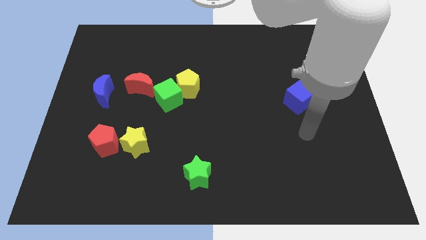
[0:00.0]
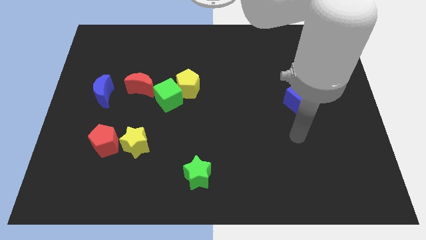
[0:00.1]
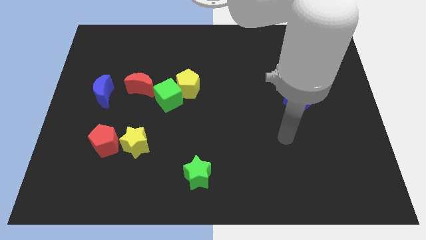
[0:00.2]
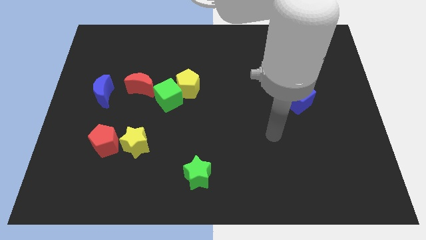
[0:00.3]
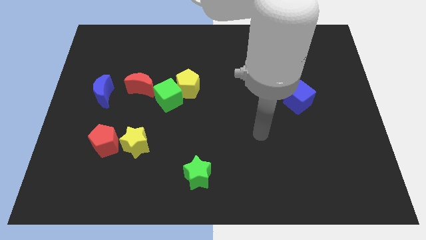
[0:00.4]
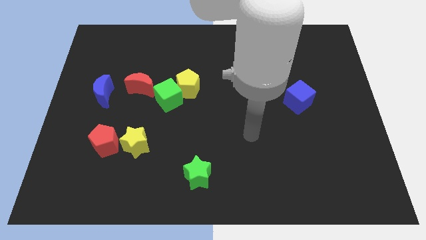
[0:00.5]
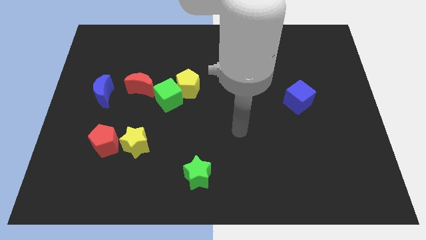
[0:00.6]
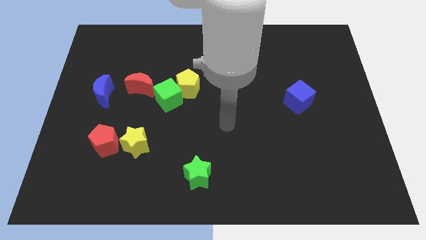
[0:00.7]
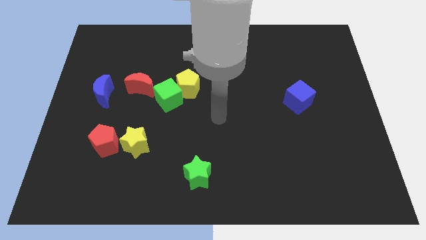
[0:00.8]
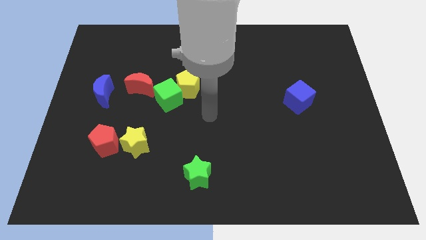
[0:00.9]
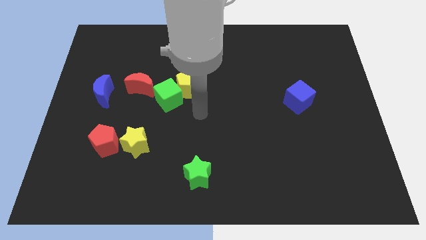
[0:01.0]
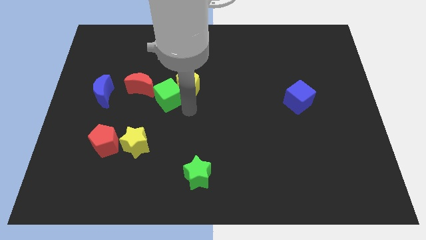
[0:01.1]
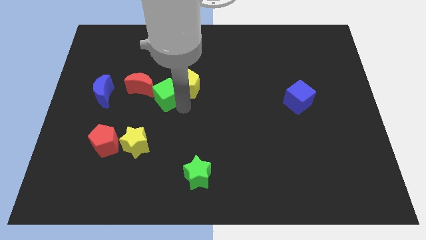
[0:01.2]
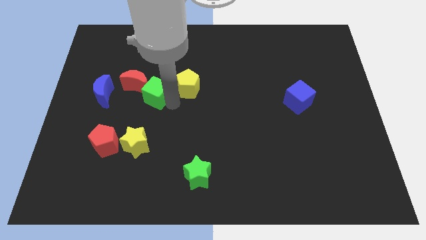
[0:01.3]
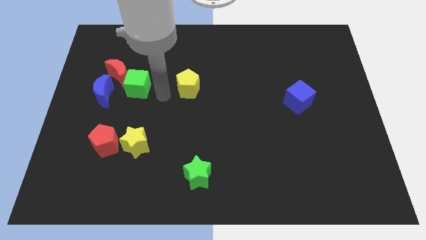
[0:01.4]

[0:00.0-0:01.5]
separate the yellow pentagon from the green cube

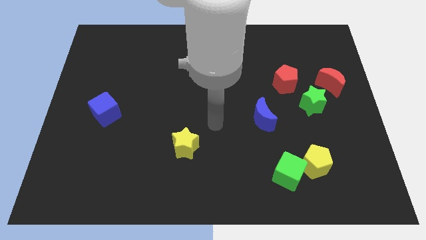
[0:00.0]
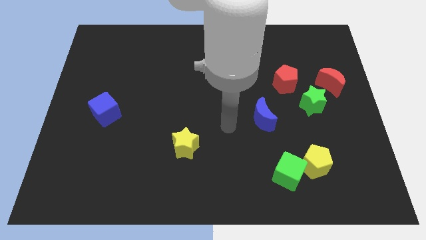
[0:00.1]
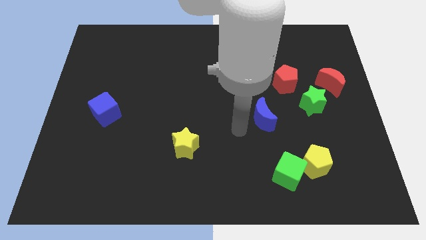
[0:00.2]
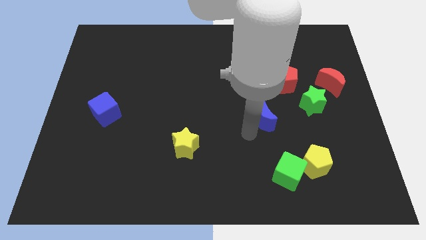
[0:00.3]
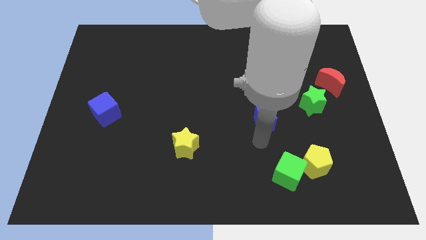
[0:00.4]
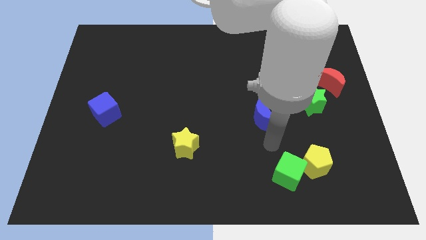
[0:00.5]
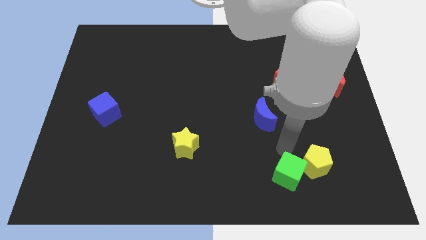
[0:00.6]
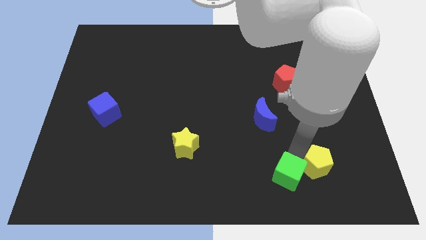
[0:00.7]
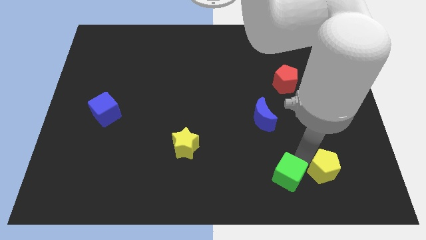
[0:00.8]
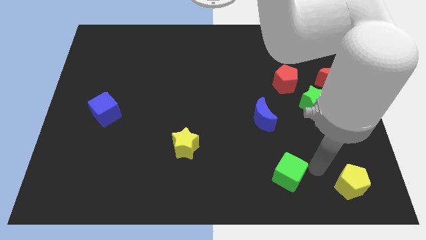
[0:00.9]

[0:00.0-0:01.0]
separate the green cube from the yellow pentagon

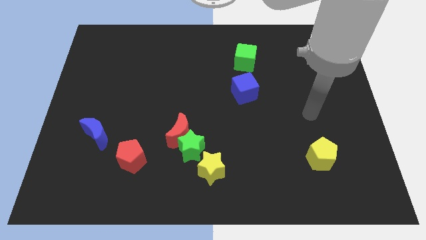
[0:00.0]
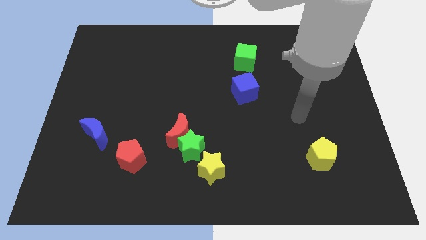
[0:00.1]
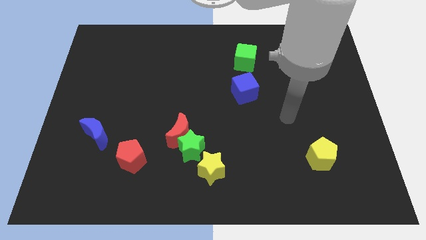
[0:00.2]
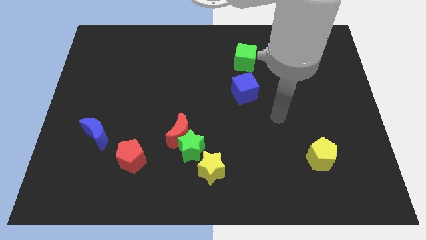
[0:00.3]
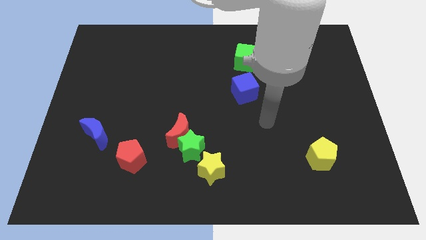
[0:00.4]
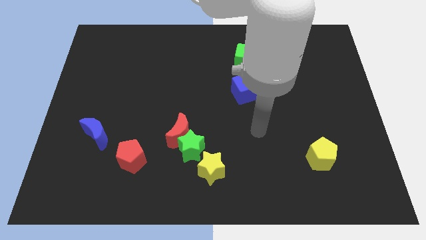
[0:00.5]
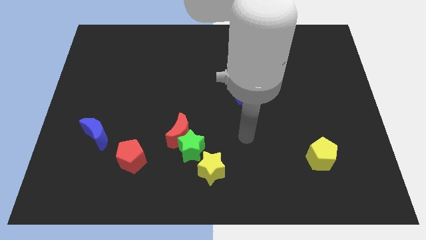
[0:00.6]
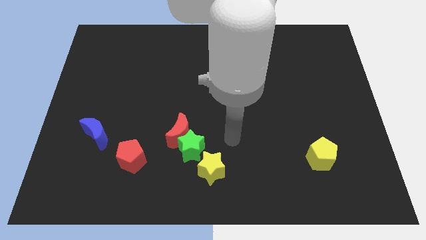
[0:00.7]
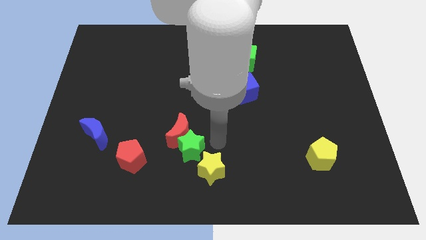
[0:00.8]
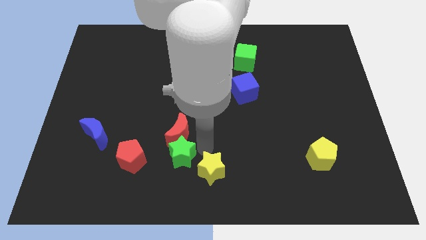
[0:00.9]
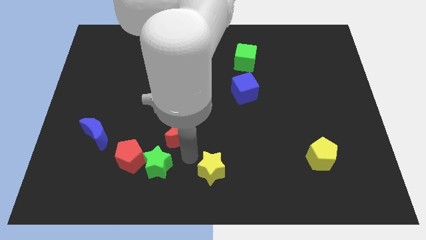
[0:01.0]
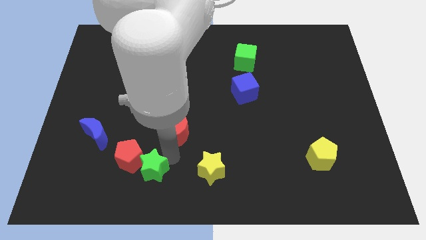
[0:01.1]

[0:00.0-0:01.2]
separate the red moon from the green star

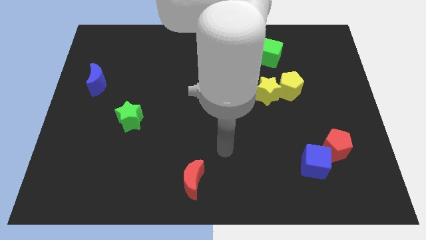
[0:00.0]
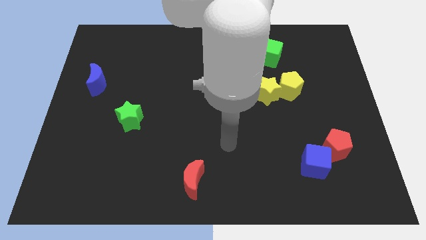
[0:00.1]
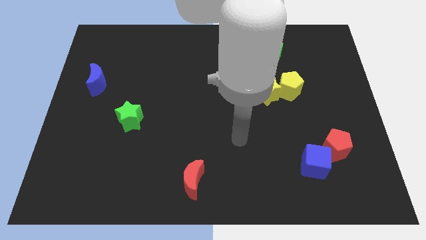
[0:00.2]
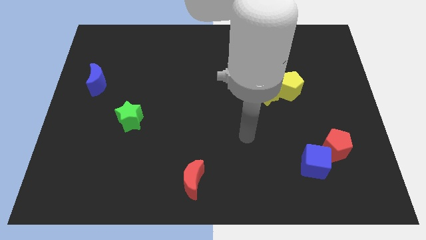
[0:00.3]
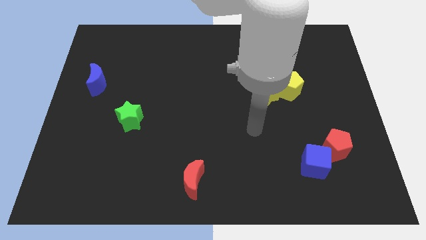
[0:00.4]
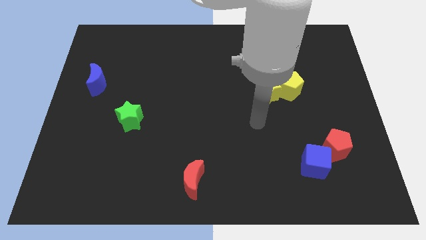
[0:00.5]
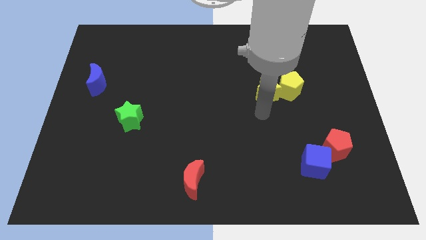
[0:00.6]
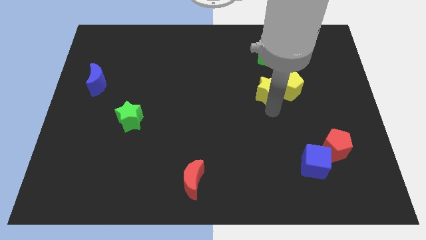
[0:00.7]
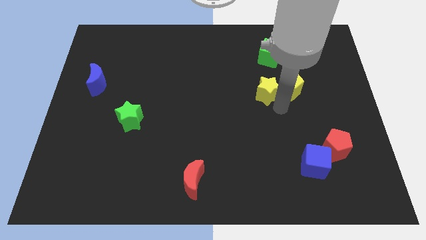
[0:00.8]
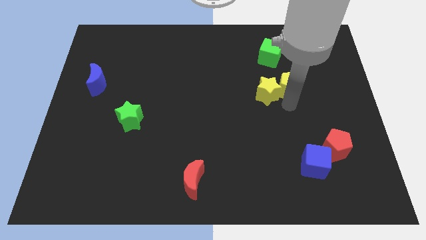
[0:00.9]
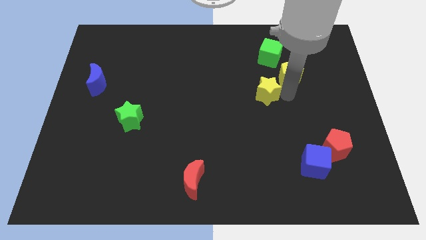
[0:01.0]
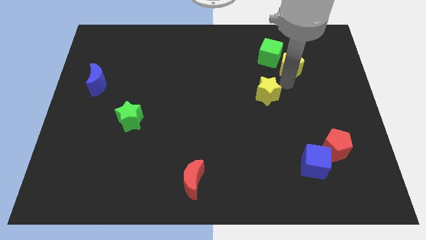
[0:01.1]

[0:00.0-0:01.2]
separate the yellow star from the yellow pentagon

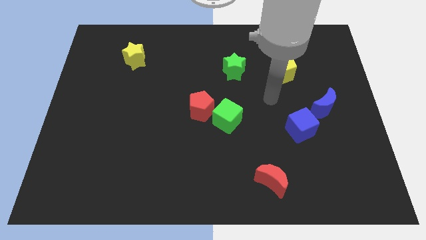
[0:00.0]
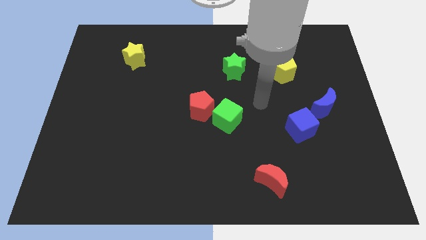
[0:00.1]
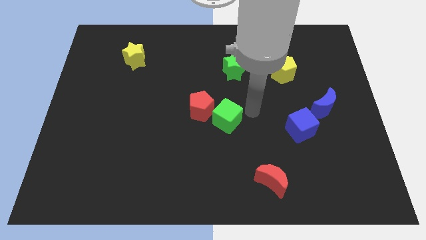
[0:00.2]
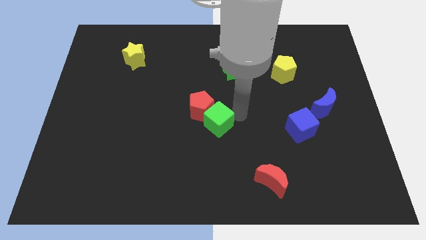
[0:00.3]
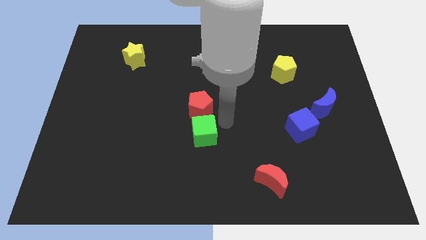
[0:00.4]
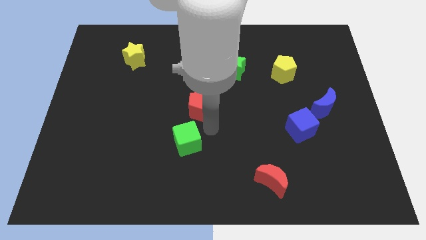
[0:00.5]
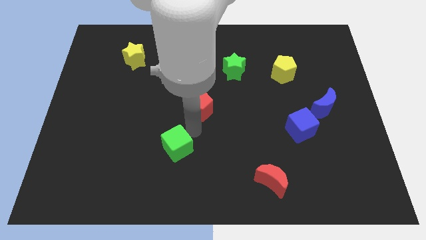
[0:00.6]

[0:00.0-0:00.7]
move the red pentagon away from the green cube

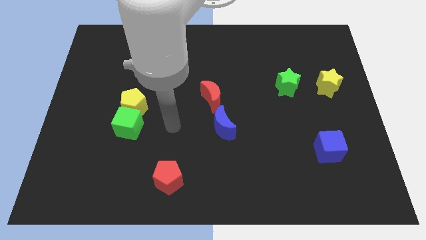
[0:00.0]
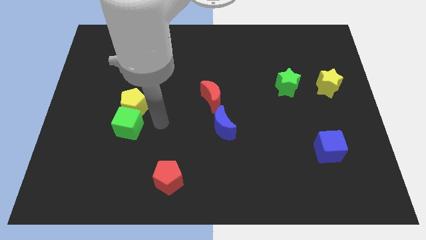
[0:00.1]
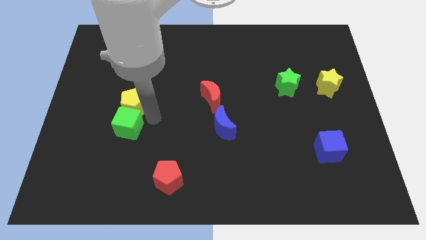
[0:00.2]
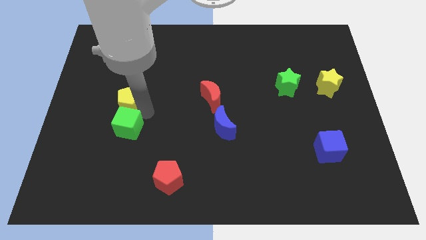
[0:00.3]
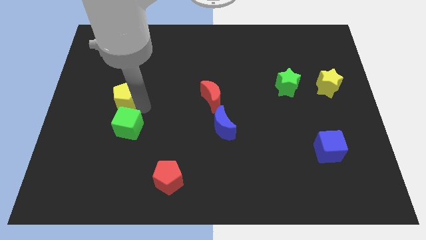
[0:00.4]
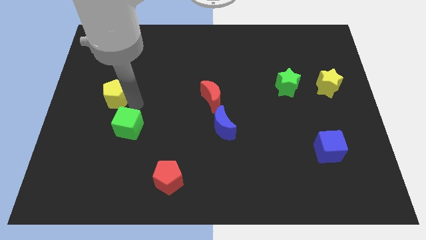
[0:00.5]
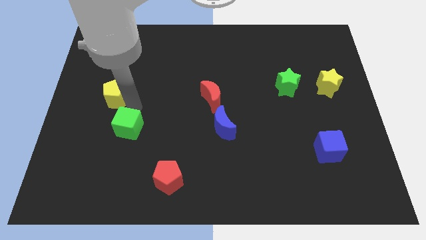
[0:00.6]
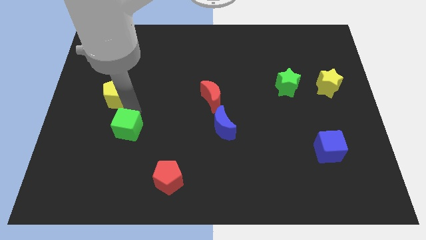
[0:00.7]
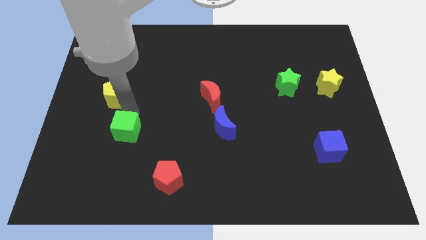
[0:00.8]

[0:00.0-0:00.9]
pull the green cube apart from the yellow pentagon

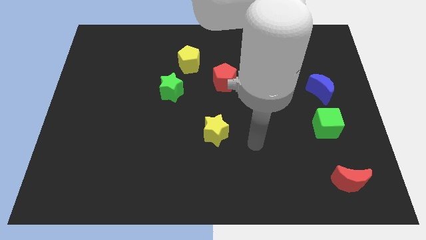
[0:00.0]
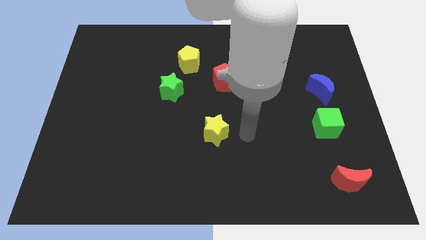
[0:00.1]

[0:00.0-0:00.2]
pull the green star apart from the yellow pentagon

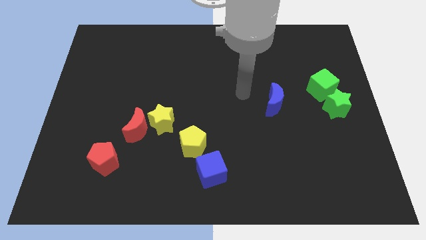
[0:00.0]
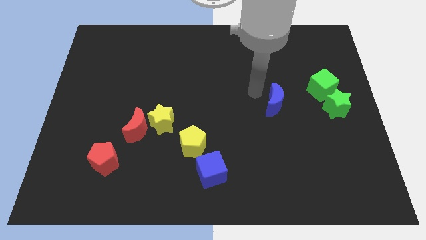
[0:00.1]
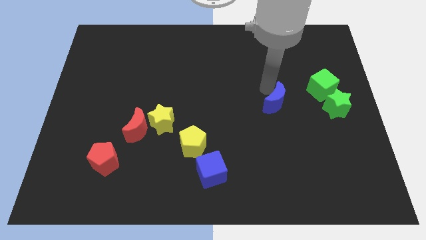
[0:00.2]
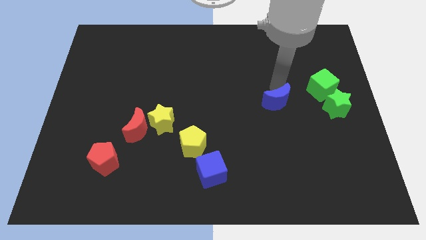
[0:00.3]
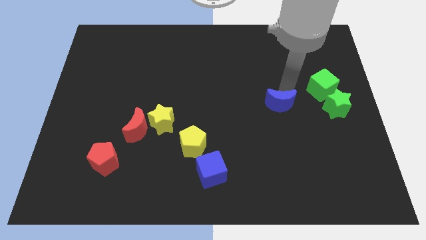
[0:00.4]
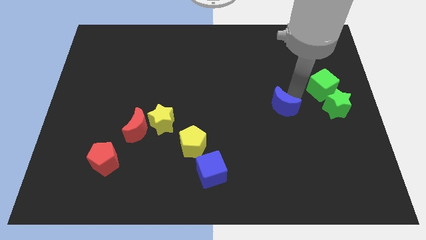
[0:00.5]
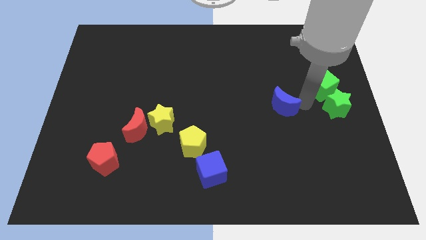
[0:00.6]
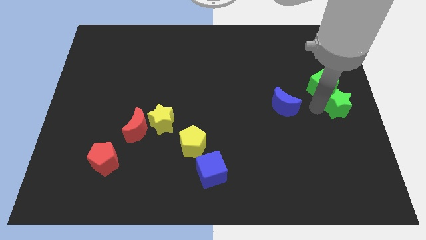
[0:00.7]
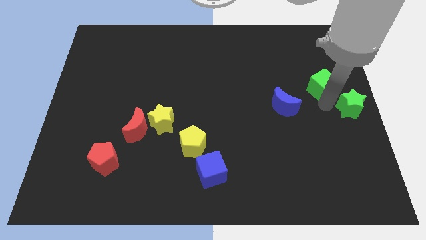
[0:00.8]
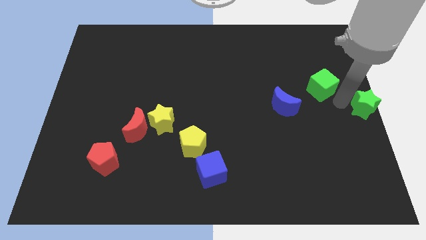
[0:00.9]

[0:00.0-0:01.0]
pull the green cube apart from the green star

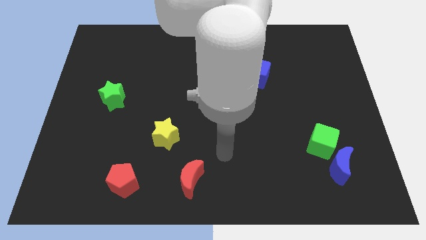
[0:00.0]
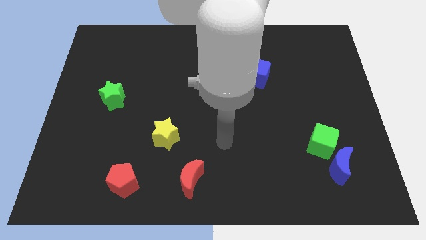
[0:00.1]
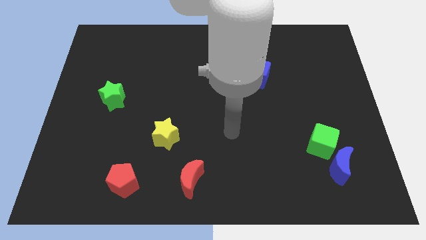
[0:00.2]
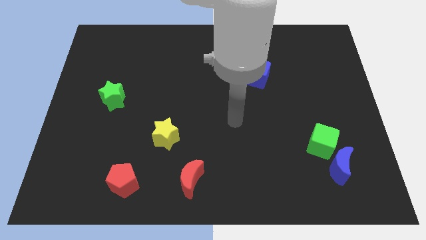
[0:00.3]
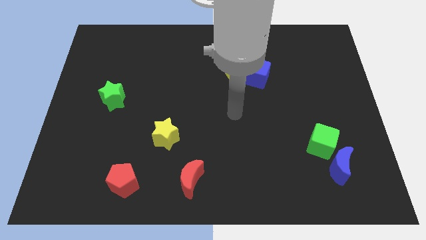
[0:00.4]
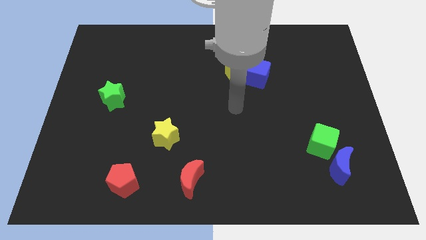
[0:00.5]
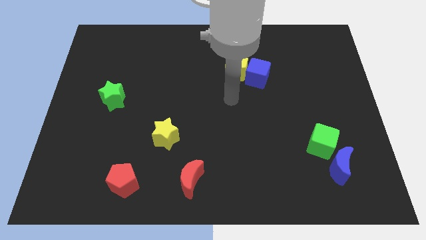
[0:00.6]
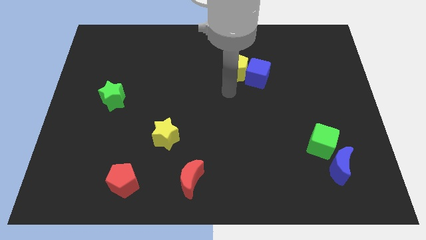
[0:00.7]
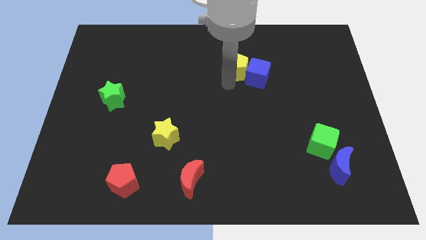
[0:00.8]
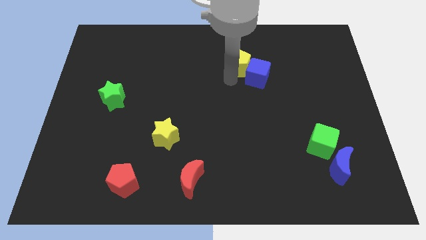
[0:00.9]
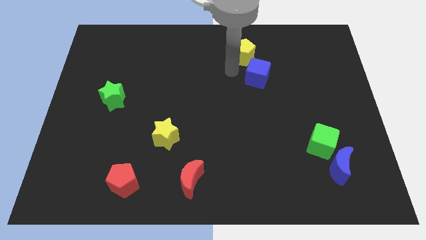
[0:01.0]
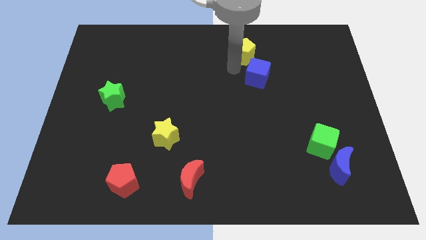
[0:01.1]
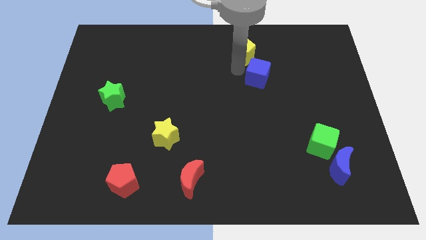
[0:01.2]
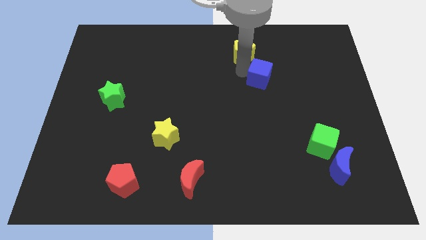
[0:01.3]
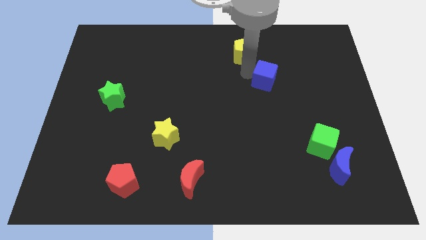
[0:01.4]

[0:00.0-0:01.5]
move the blue cube away from the yellow pentagon

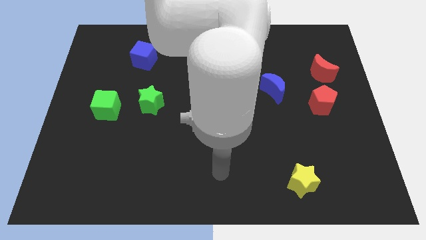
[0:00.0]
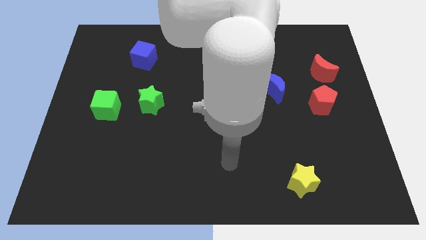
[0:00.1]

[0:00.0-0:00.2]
separate the red moon from the red pentagon
